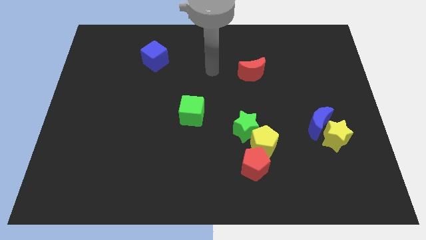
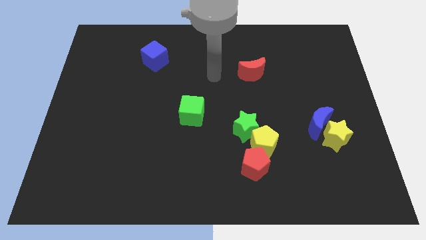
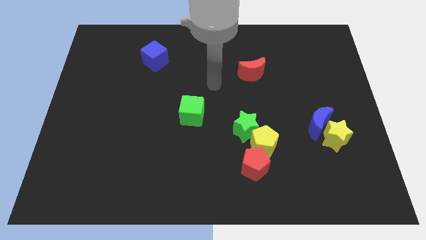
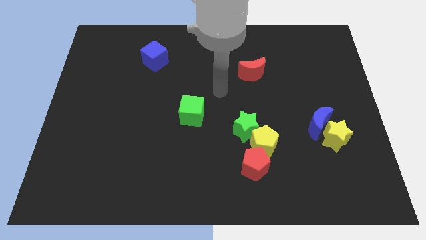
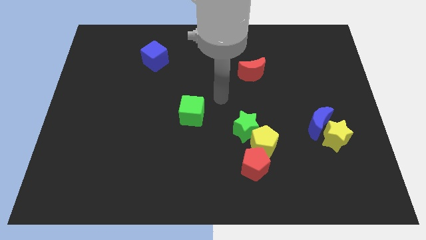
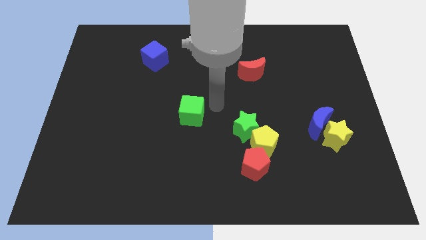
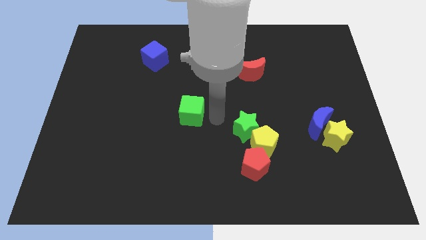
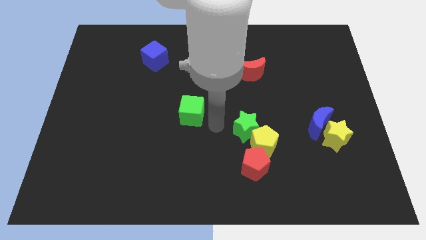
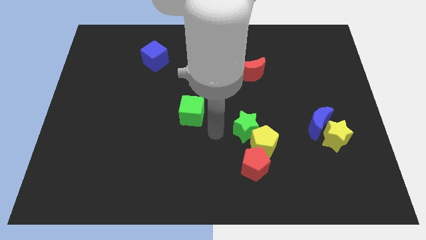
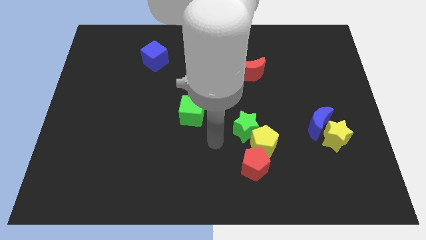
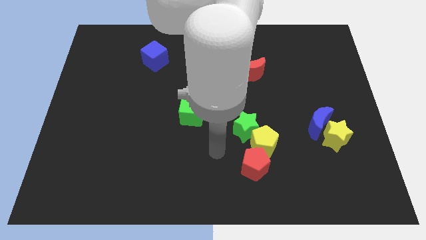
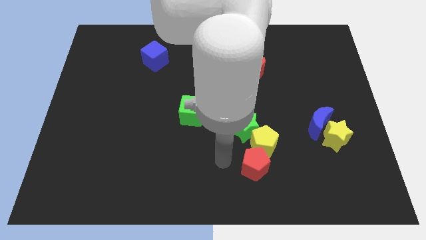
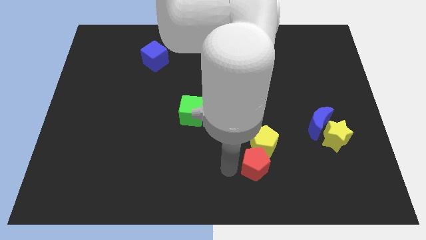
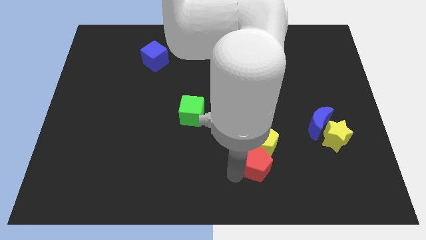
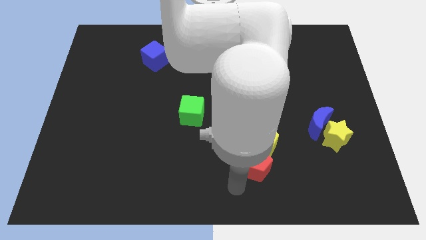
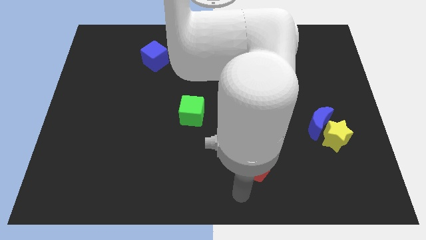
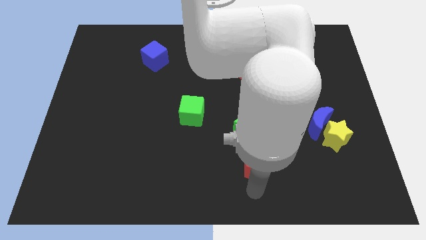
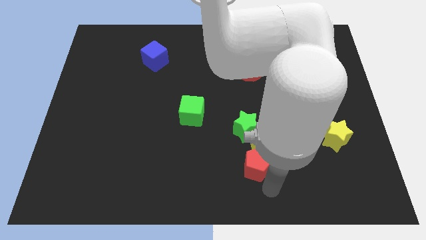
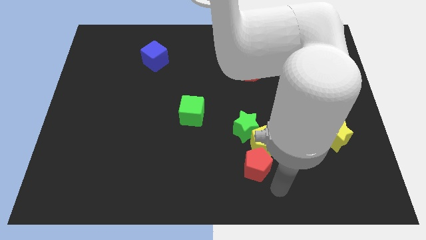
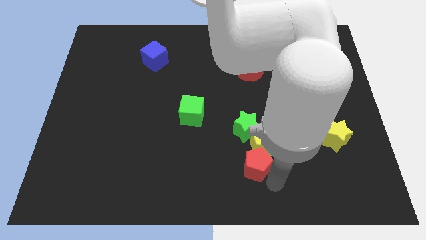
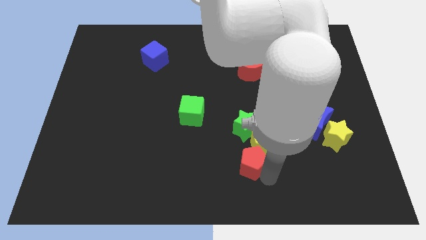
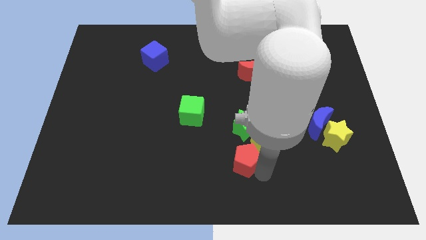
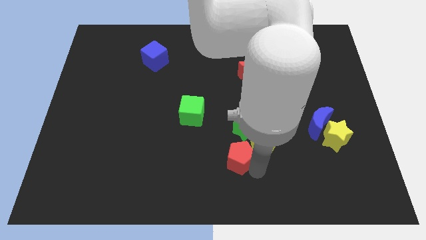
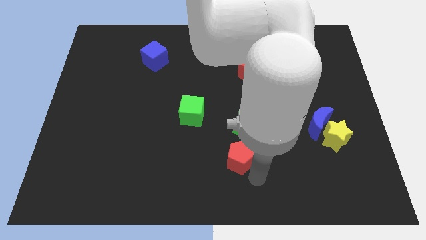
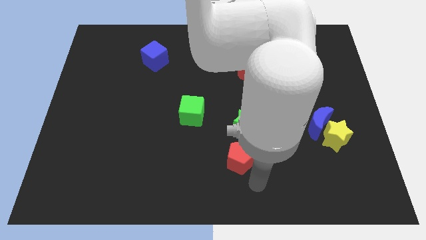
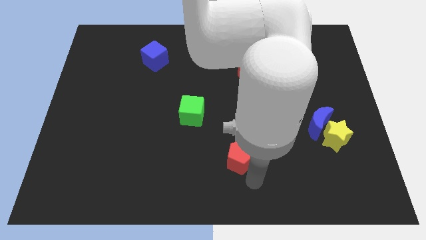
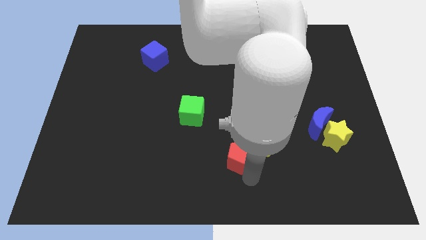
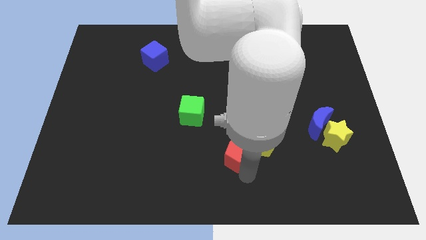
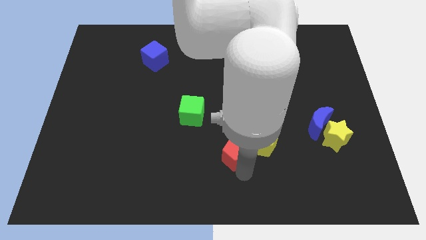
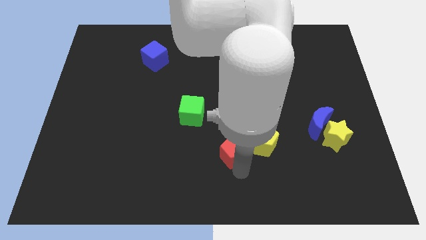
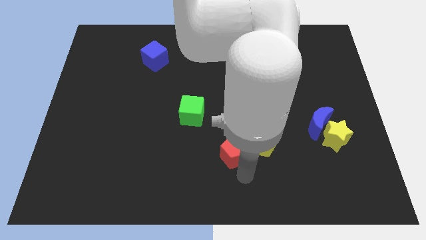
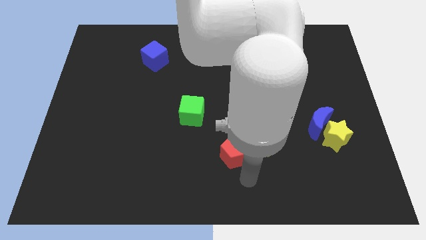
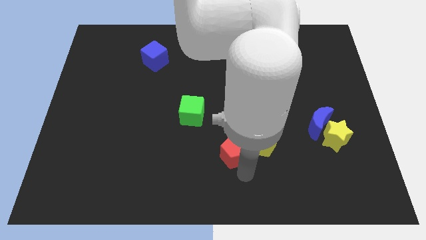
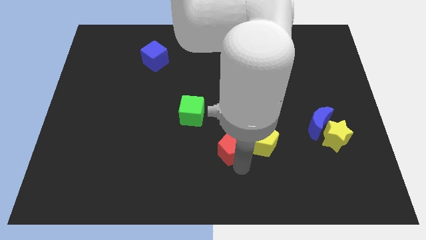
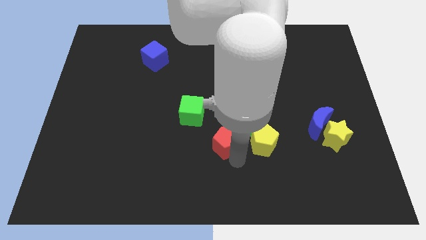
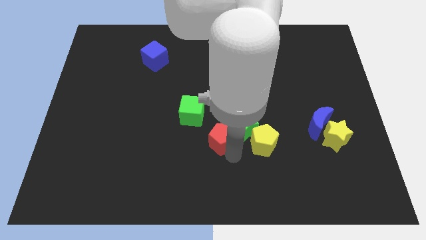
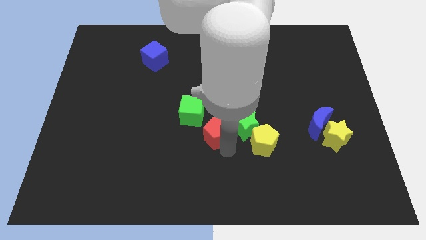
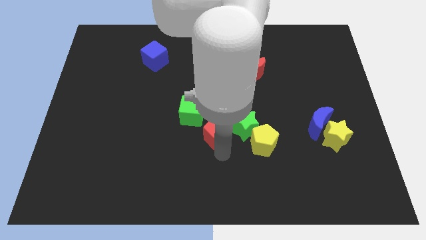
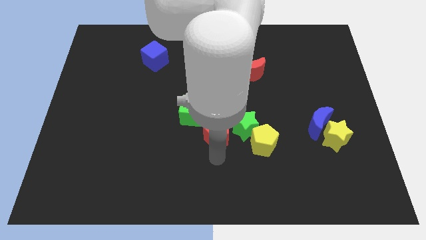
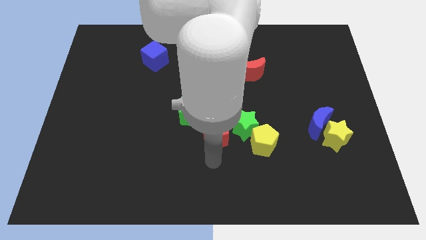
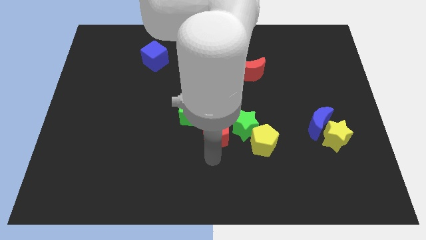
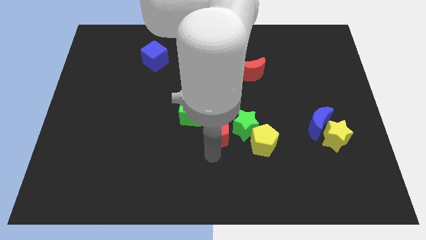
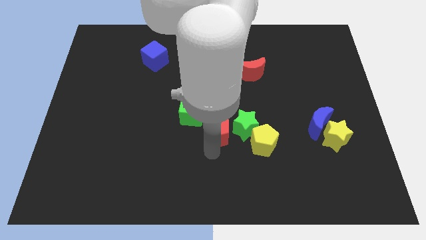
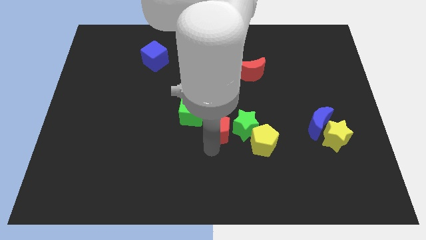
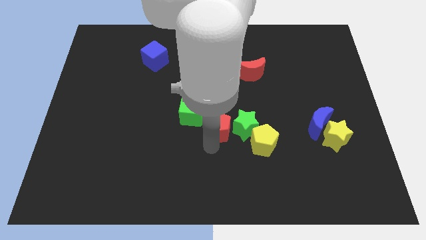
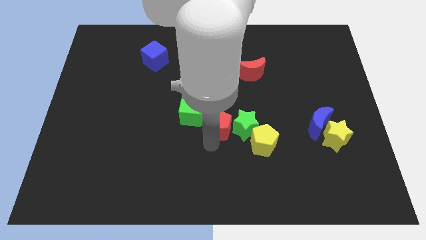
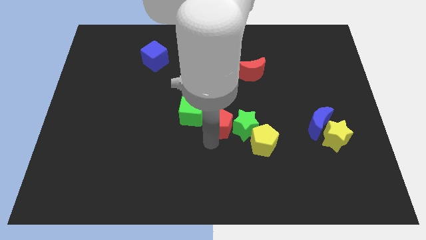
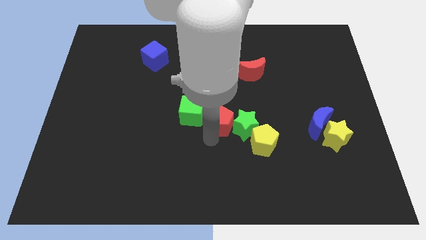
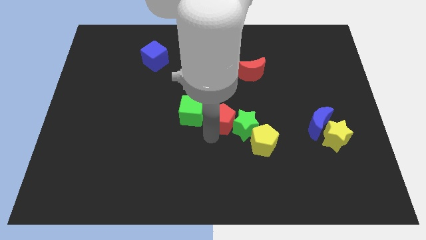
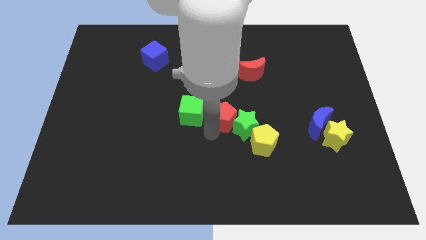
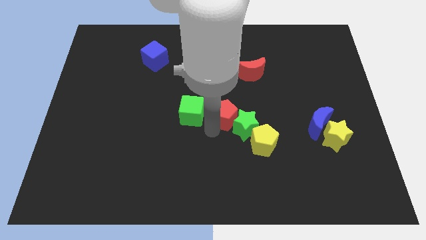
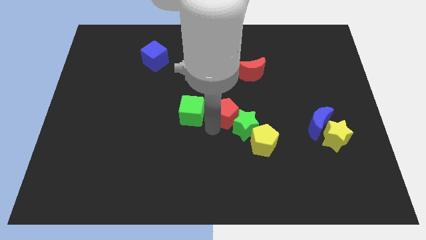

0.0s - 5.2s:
put the red pentagon above the green star

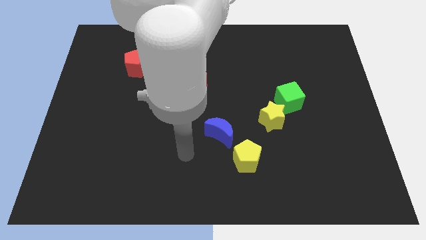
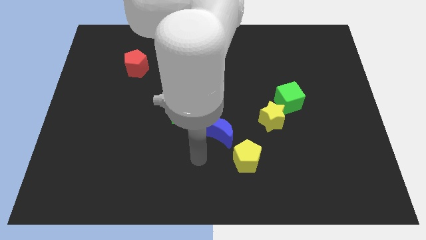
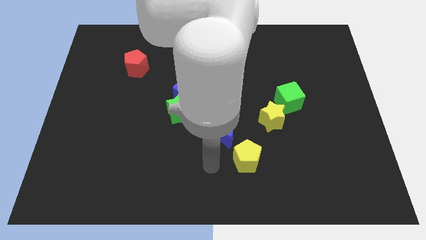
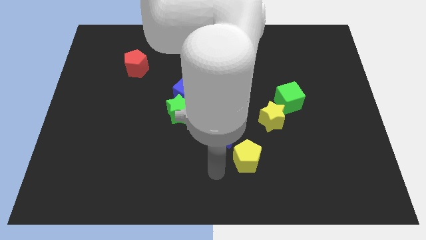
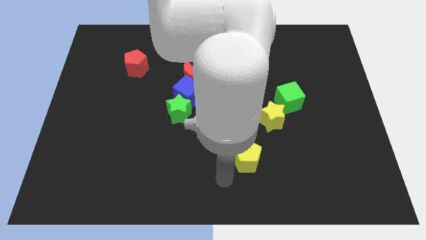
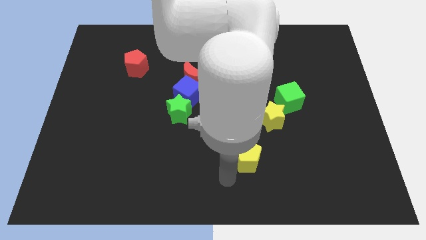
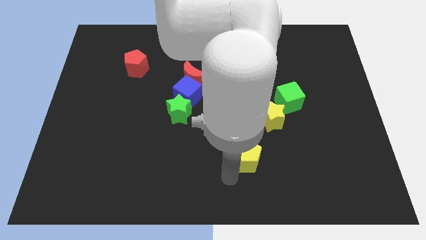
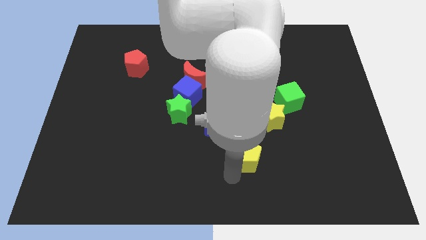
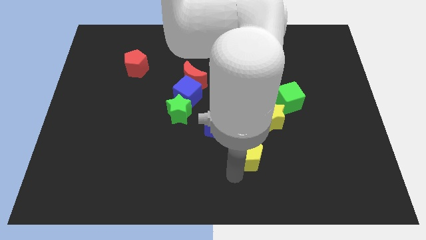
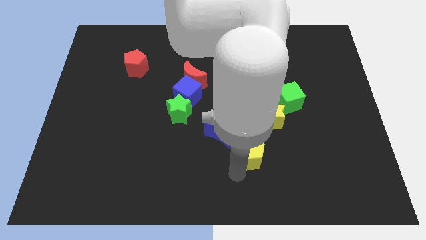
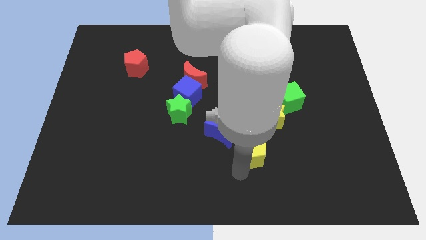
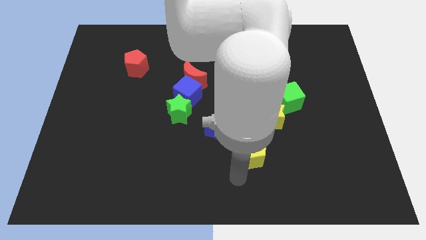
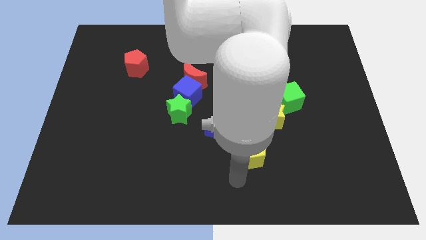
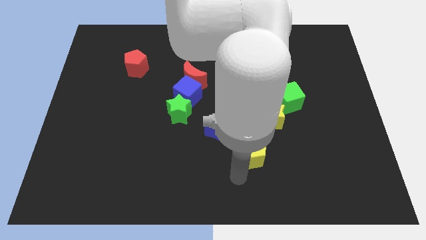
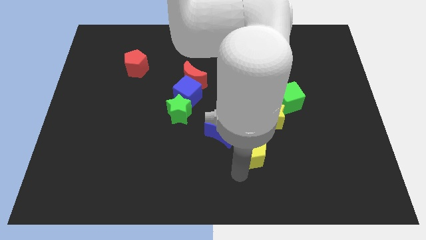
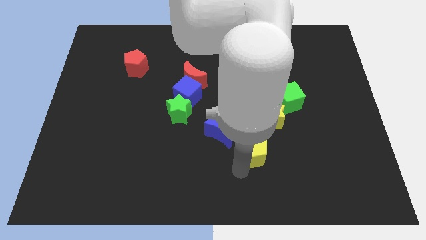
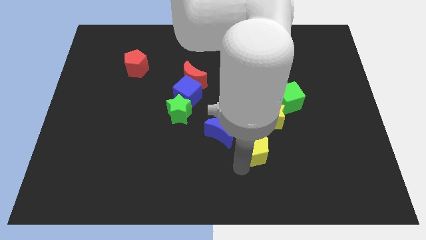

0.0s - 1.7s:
move the yellow pentagon to the right of the blue moon
